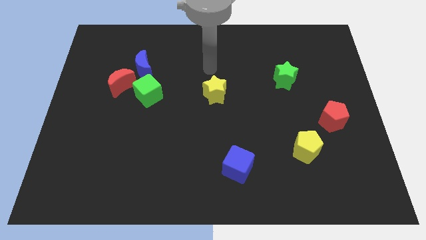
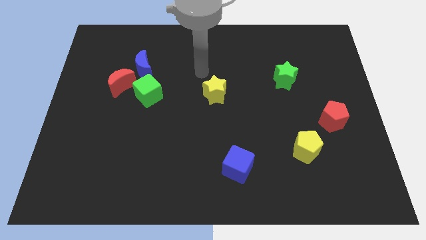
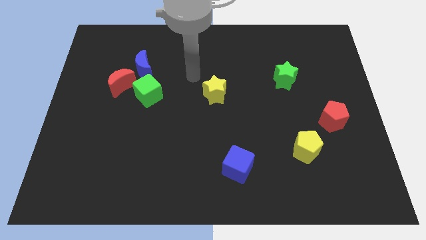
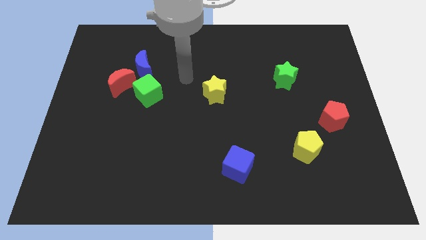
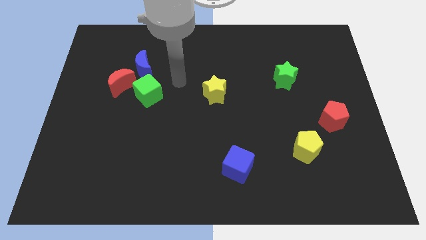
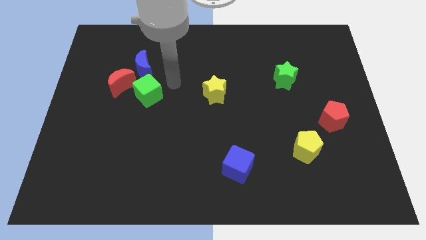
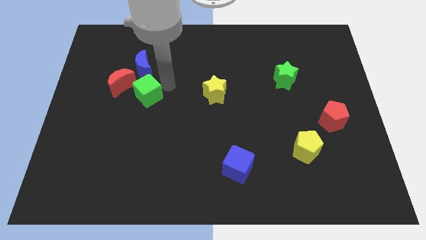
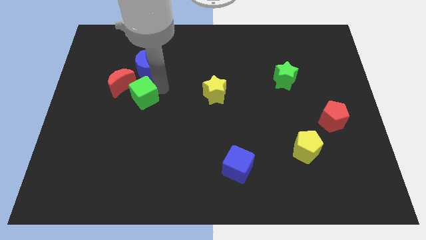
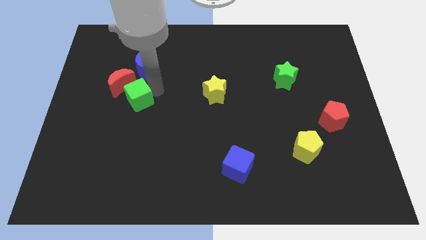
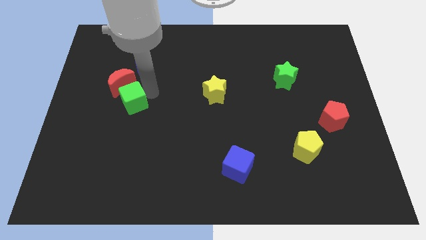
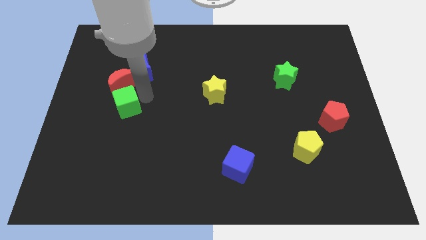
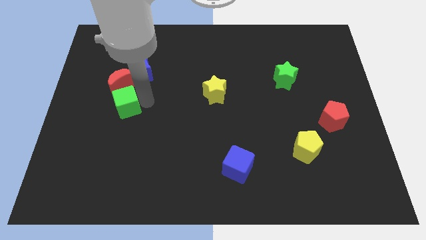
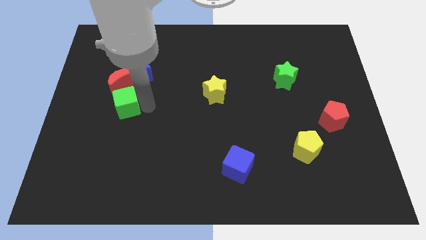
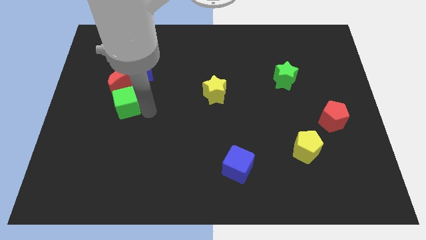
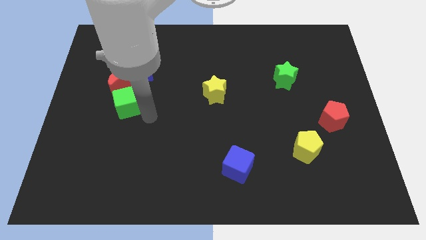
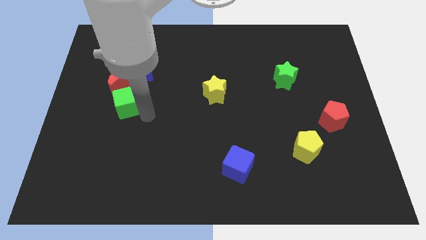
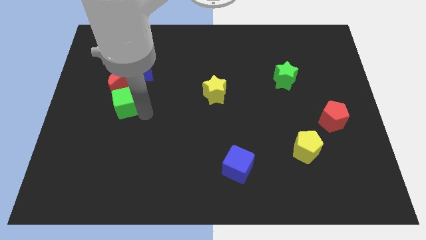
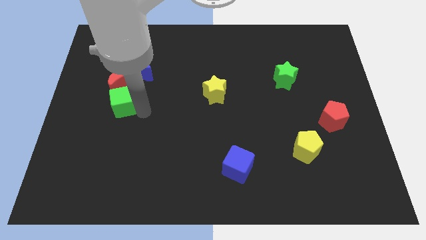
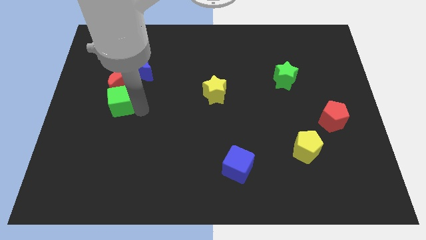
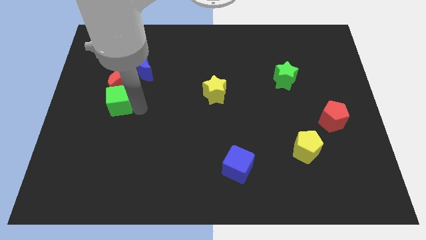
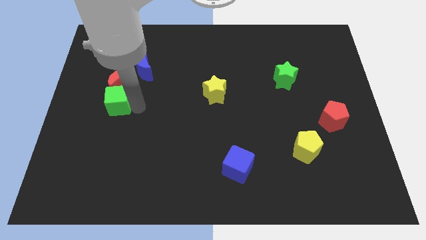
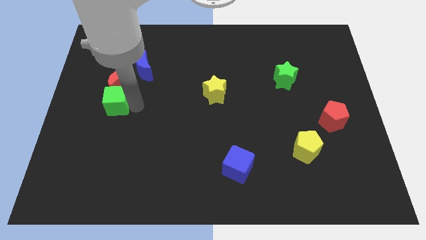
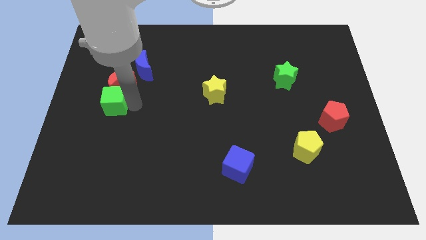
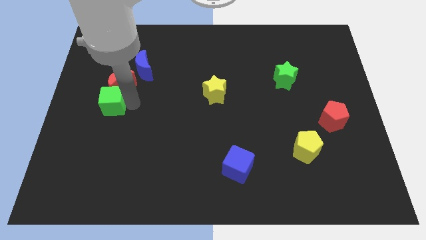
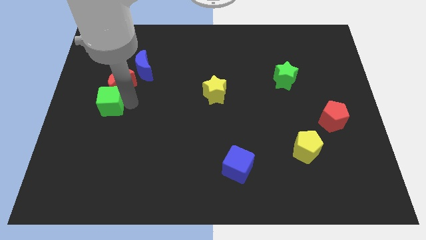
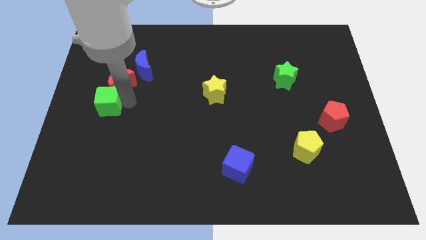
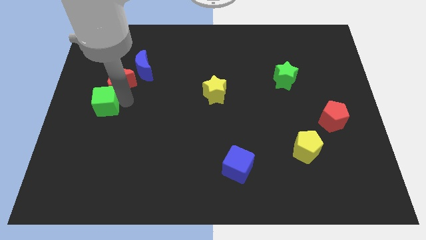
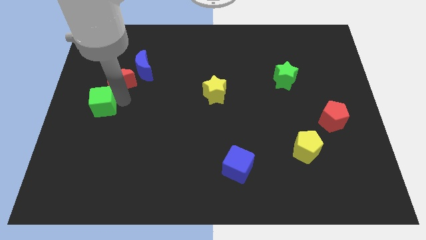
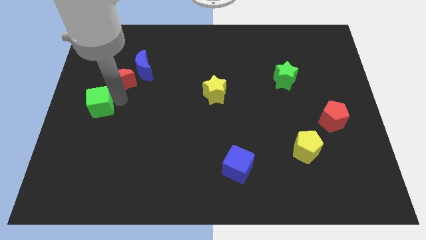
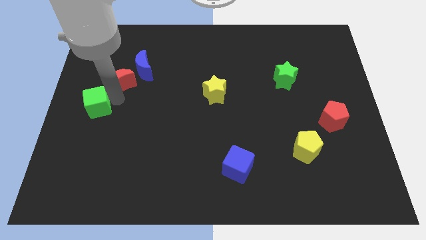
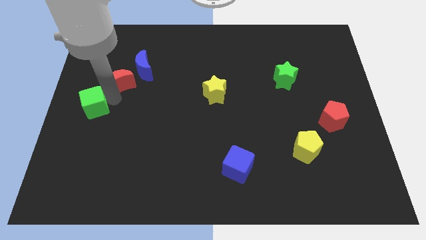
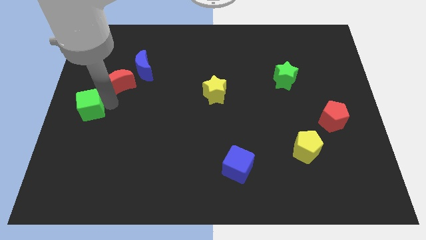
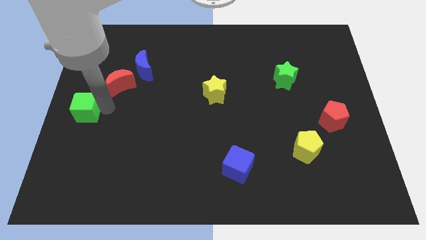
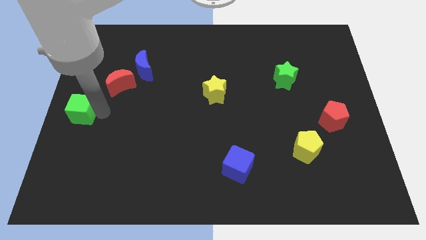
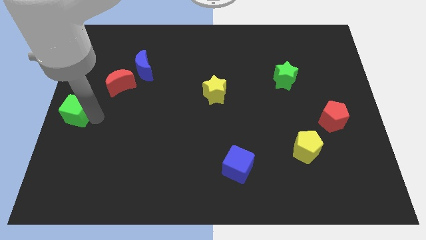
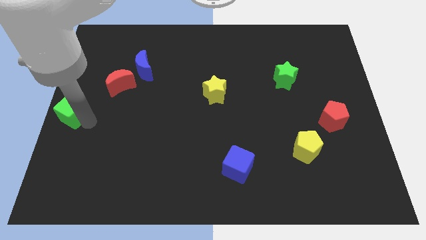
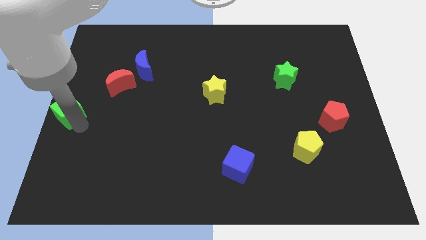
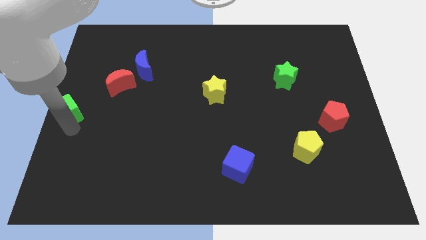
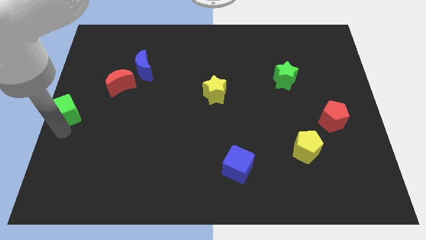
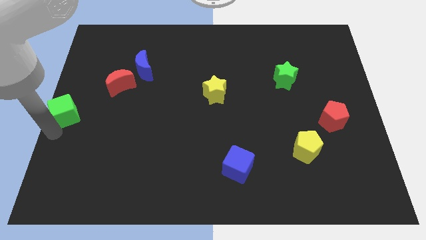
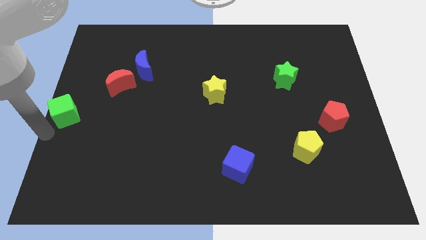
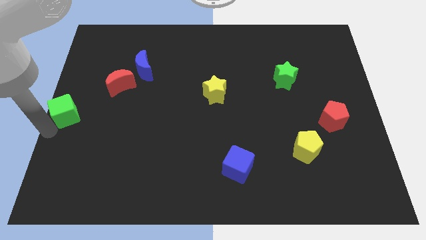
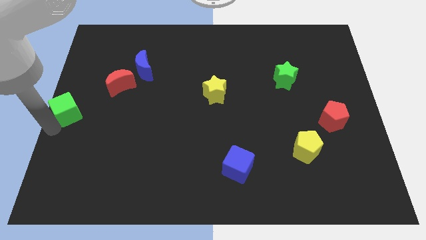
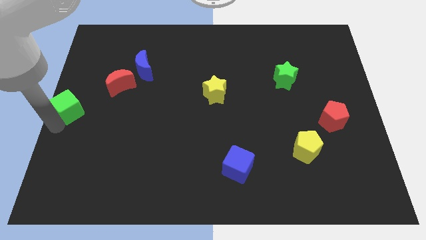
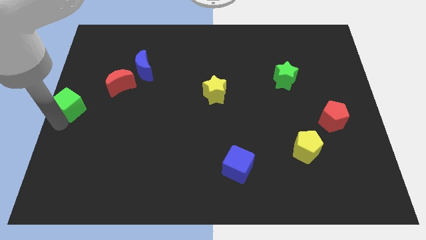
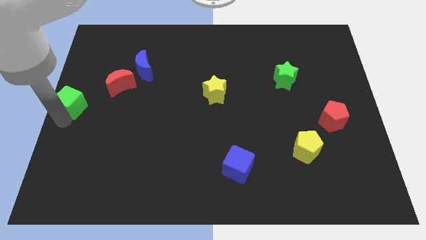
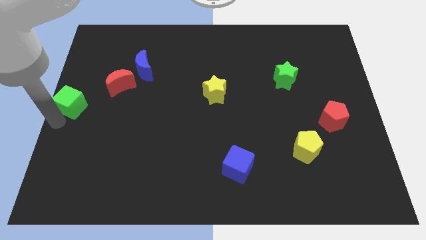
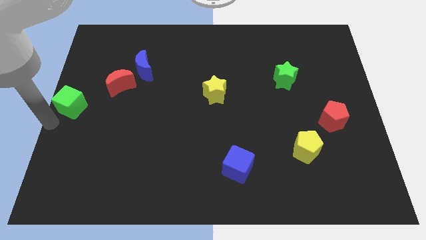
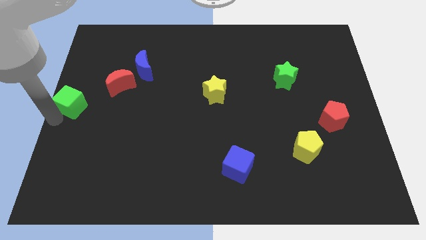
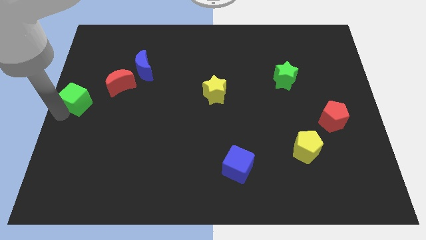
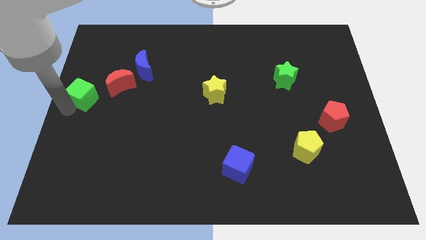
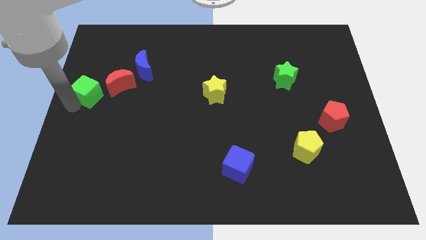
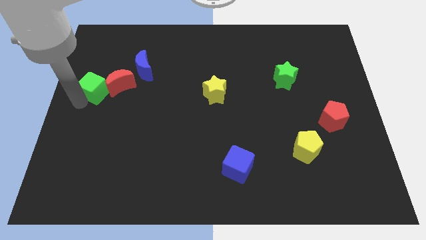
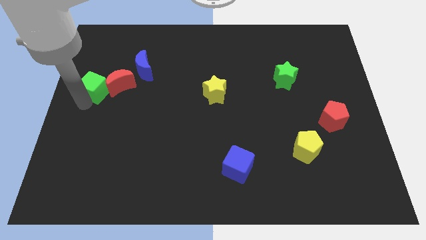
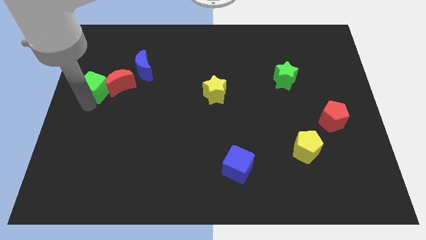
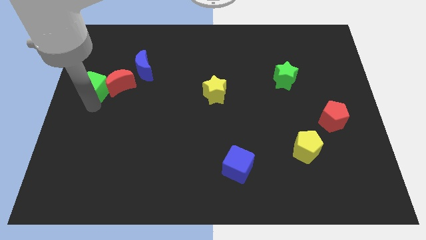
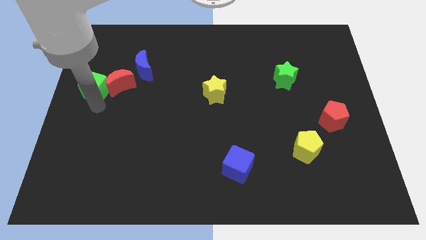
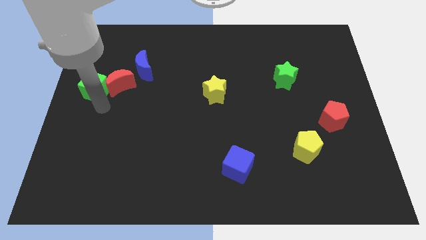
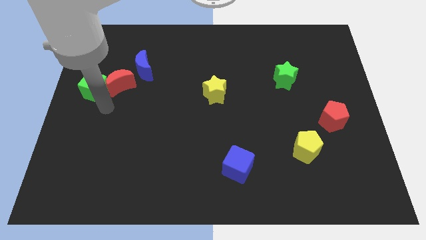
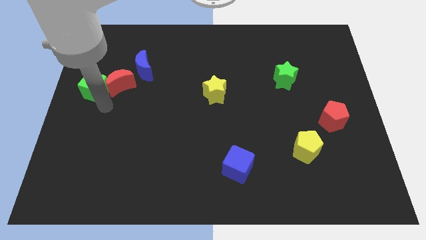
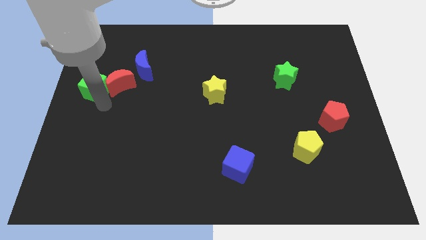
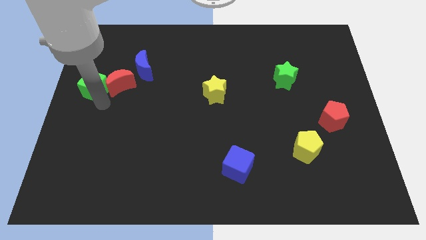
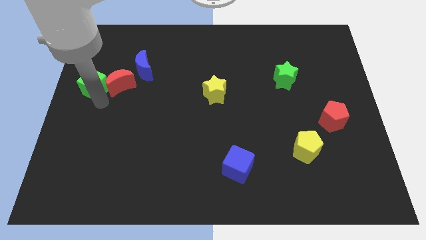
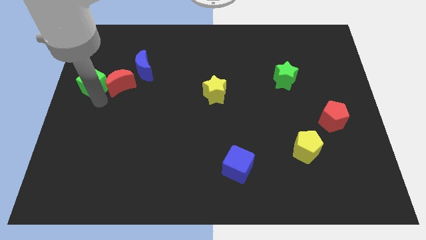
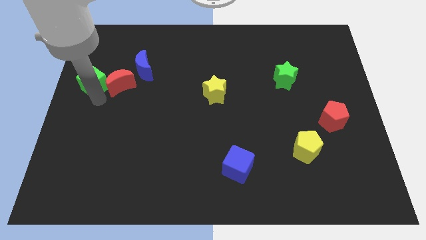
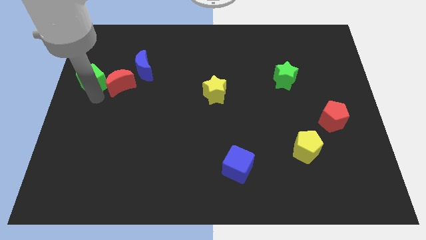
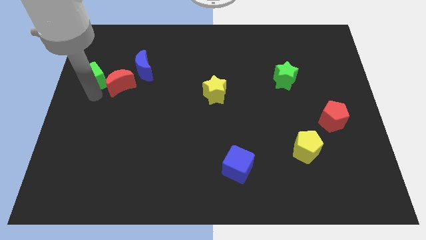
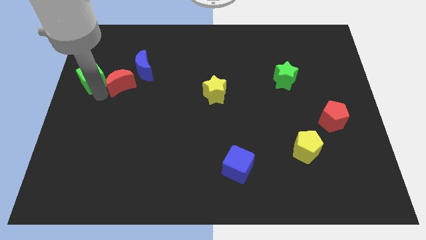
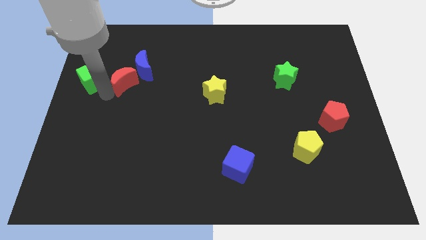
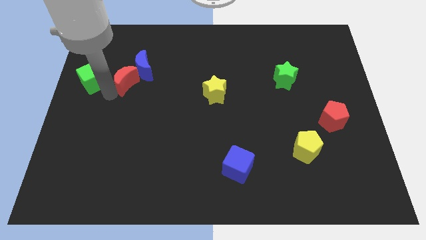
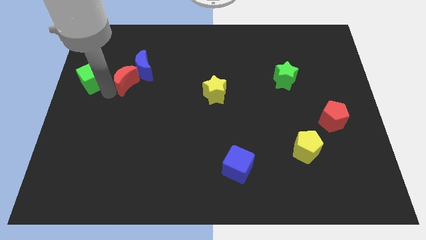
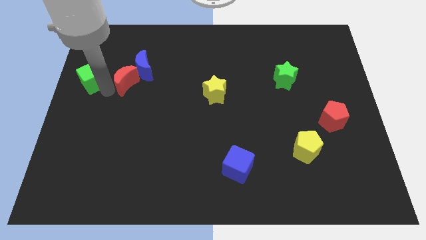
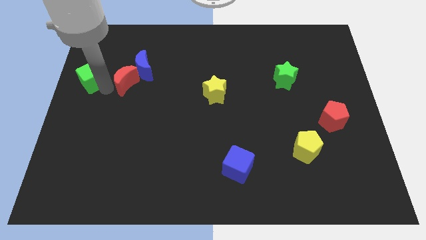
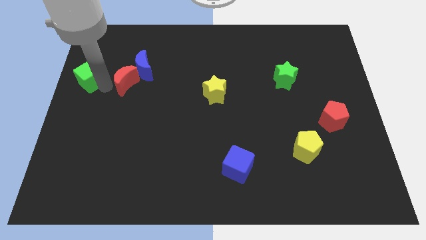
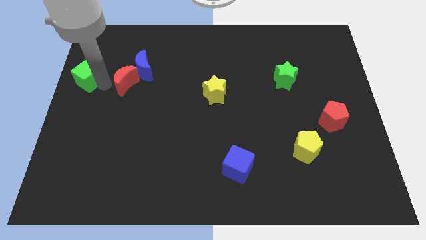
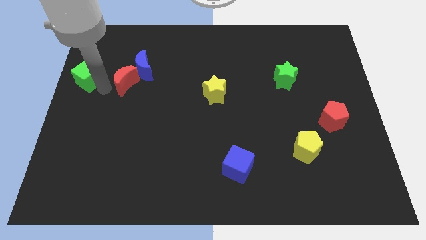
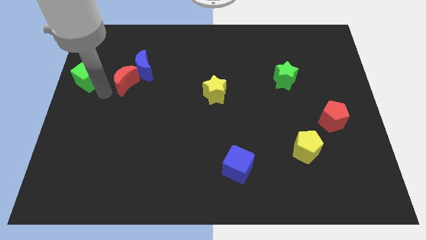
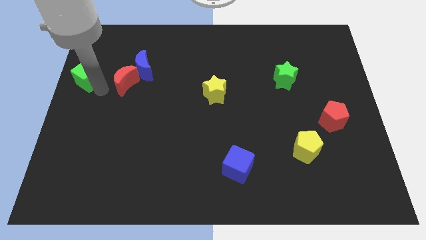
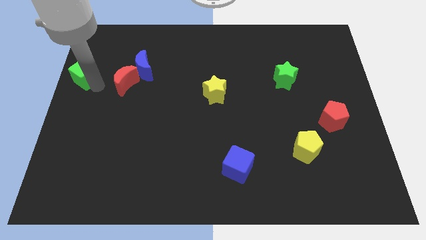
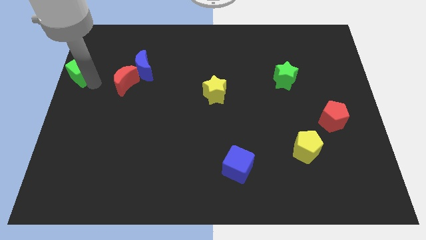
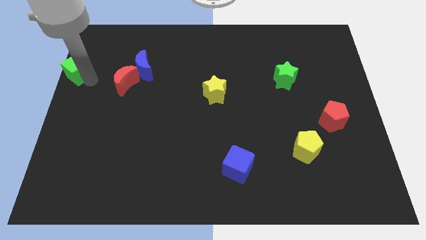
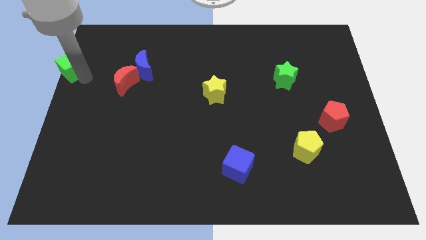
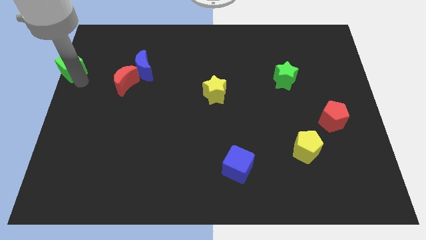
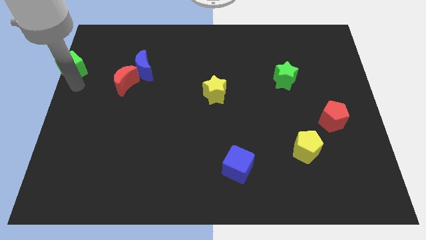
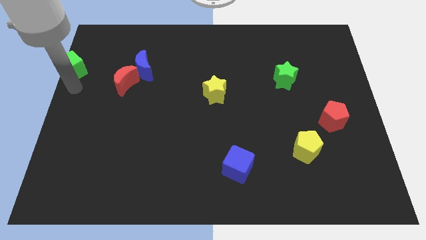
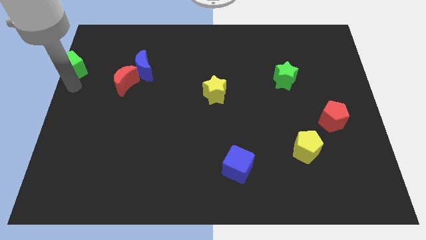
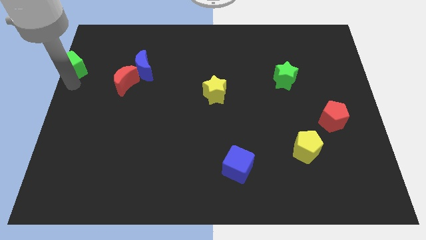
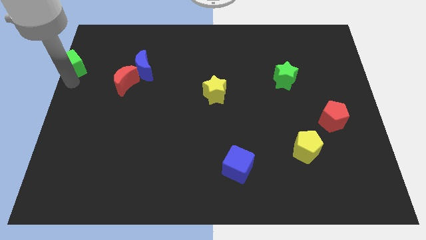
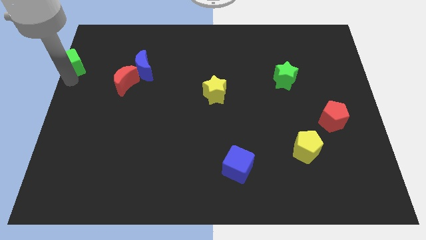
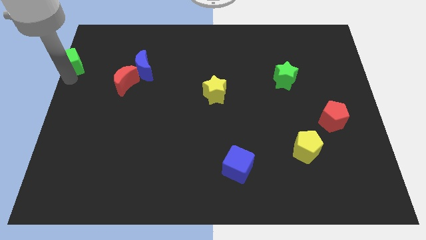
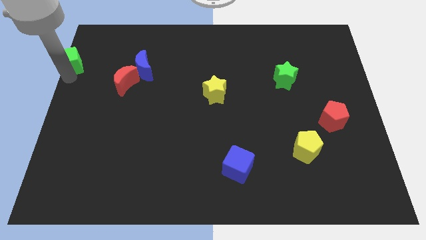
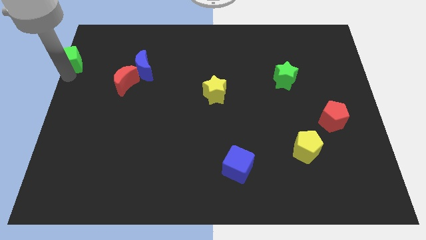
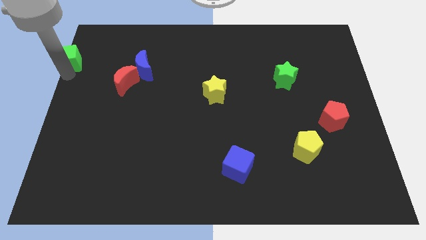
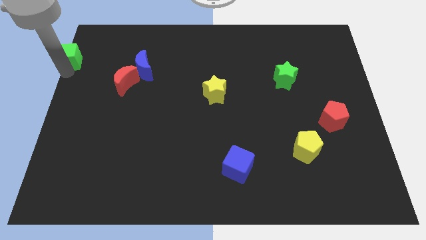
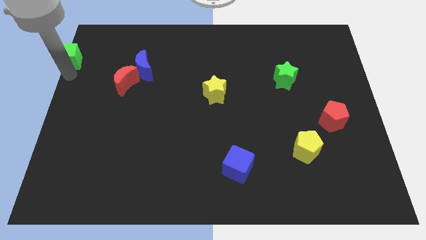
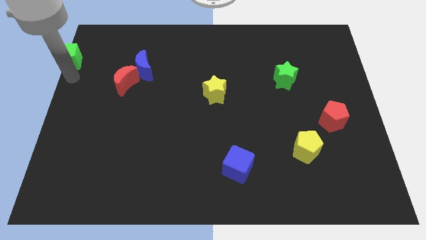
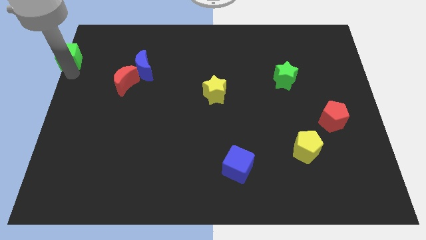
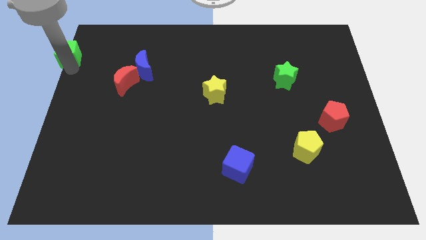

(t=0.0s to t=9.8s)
put the green cube to the top left corner
